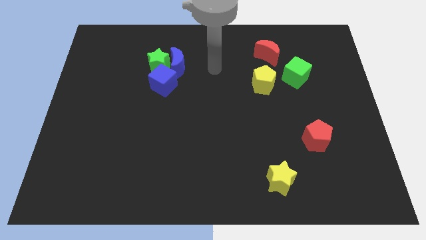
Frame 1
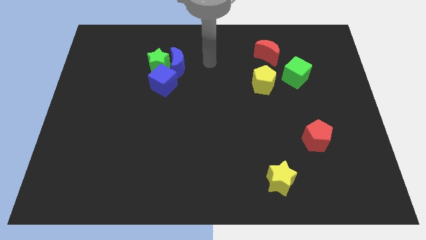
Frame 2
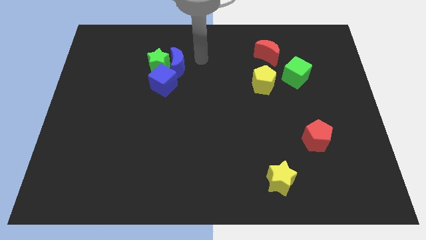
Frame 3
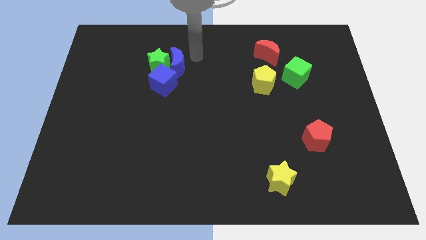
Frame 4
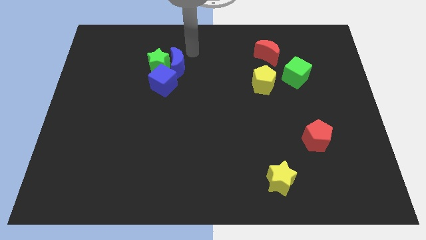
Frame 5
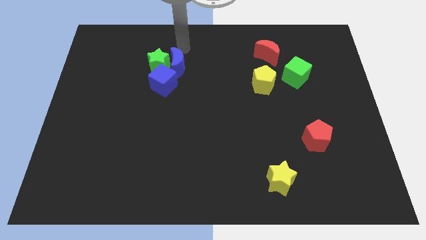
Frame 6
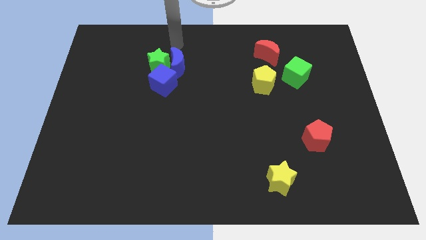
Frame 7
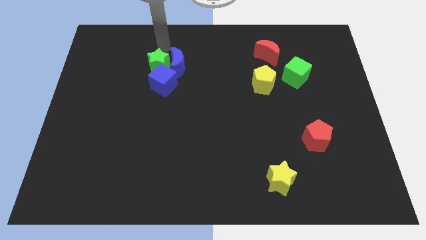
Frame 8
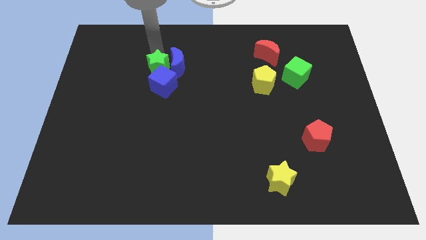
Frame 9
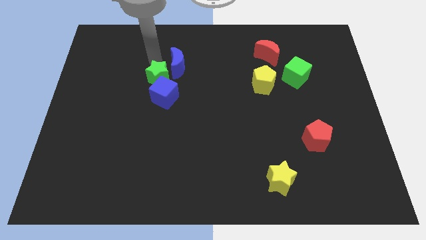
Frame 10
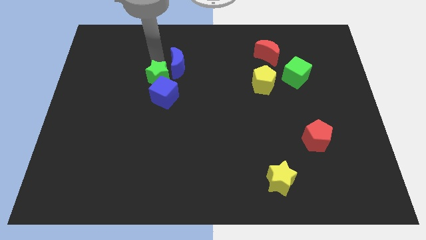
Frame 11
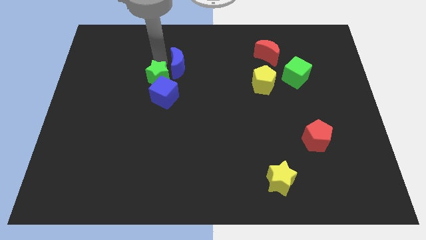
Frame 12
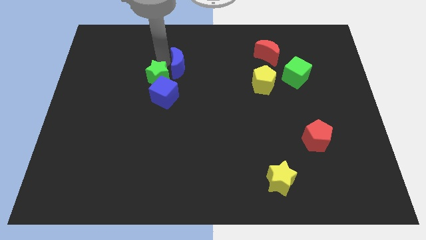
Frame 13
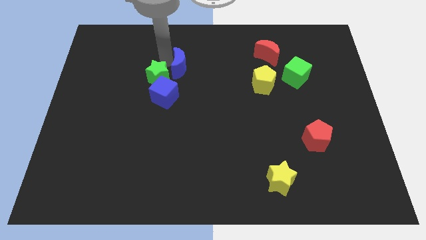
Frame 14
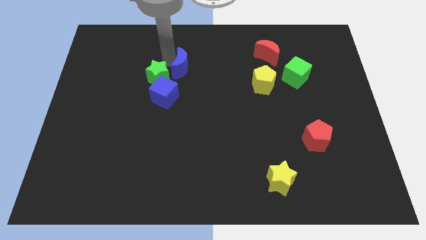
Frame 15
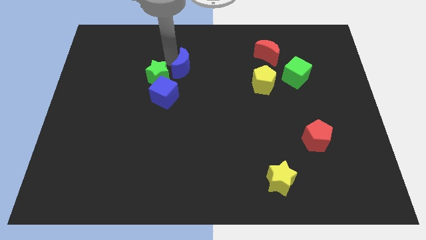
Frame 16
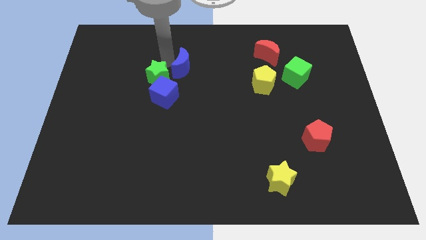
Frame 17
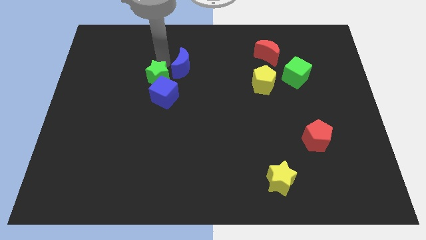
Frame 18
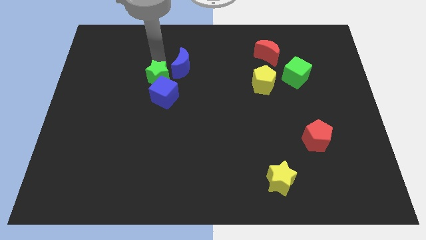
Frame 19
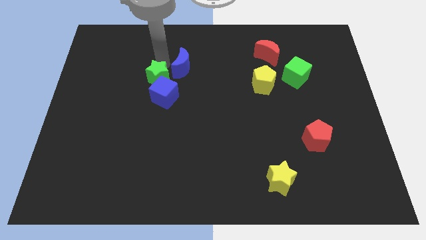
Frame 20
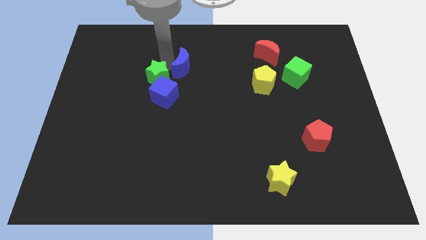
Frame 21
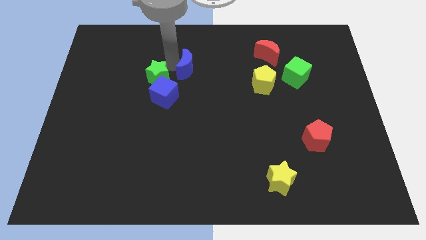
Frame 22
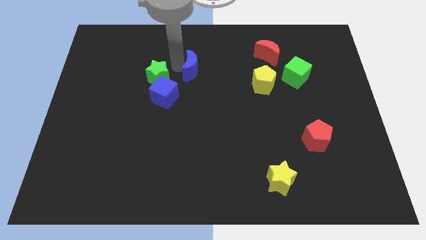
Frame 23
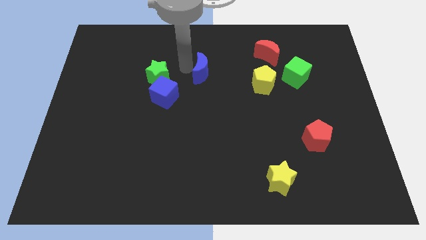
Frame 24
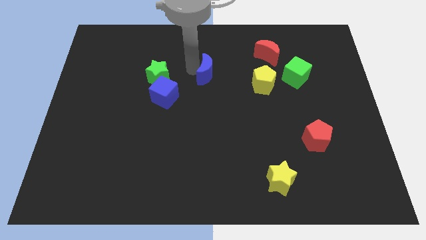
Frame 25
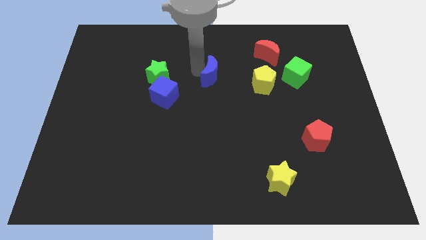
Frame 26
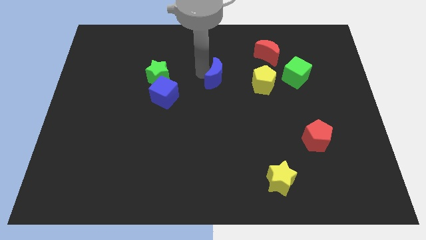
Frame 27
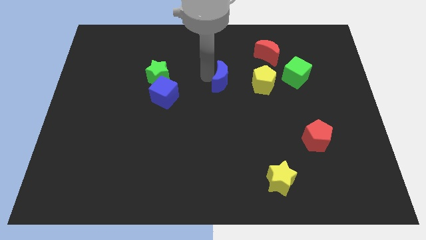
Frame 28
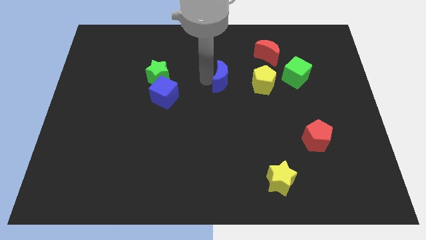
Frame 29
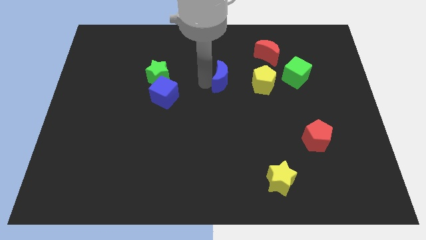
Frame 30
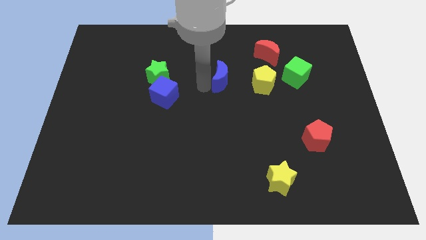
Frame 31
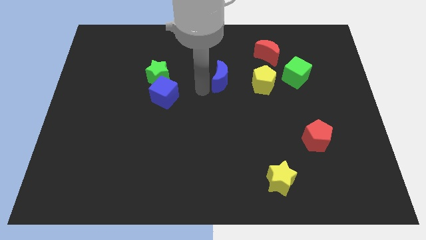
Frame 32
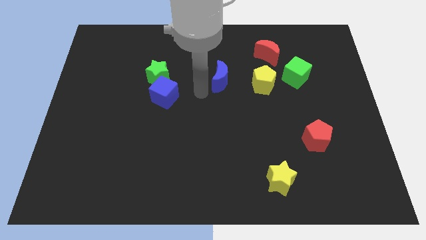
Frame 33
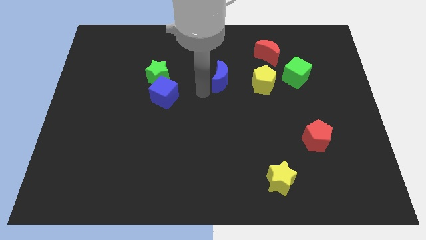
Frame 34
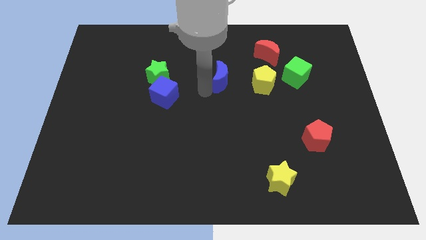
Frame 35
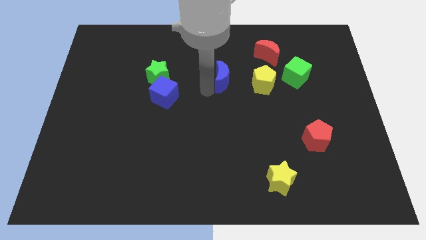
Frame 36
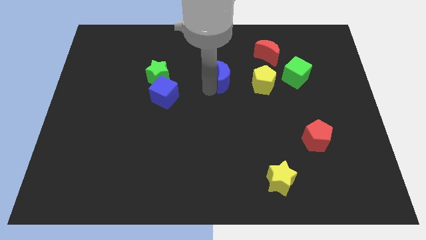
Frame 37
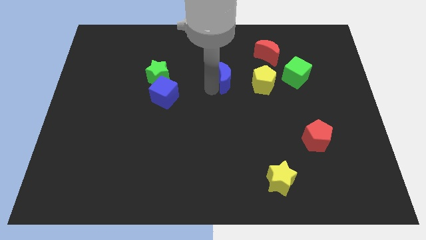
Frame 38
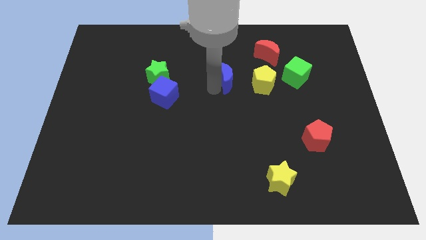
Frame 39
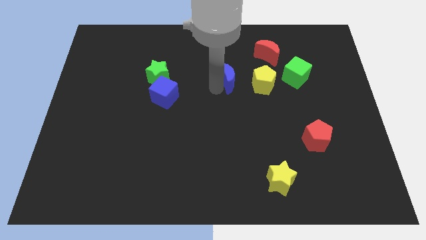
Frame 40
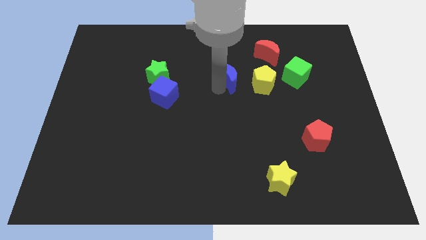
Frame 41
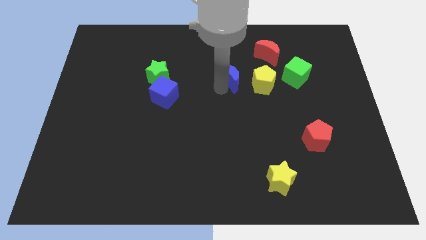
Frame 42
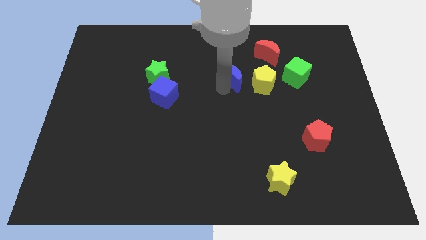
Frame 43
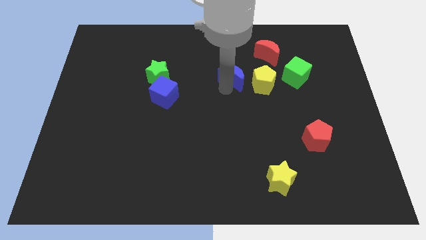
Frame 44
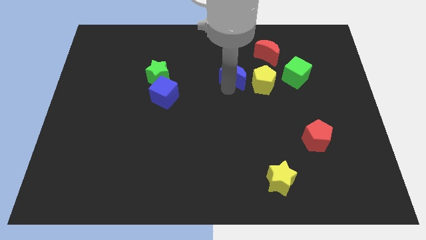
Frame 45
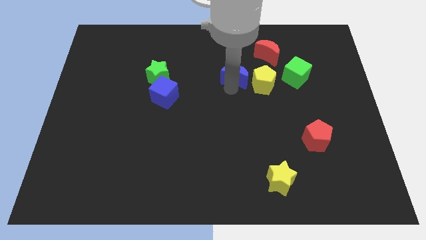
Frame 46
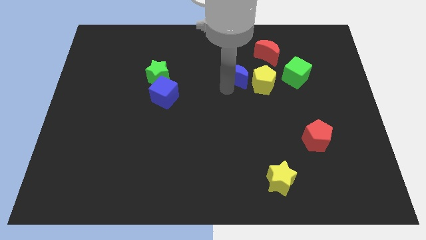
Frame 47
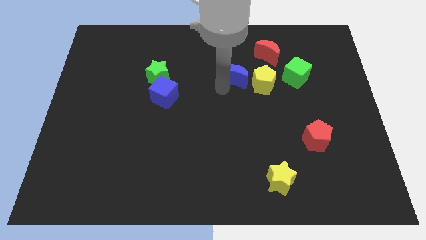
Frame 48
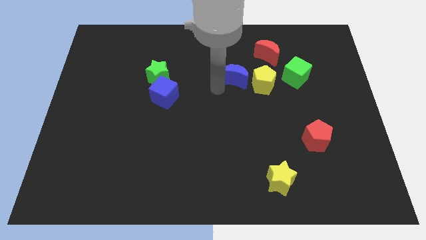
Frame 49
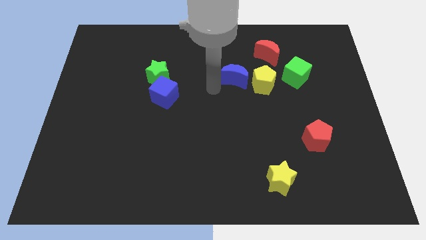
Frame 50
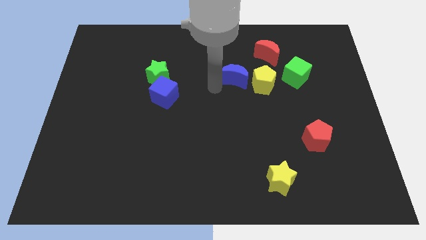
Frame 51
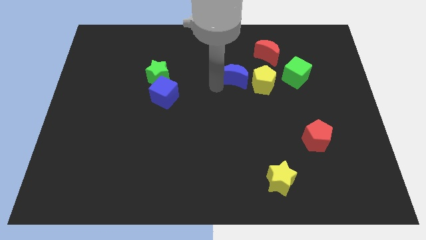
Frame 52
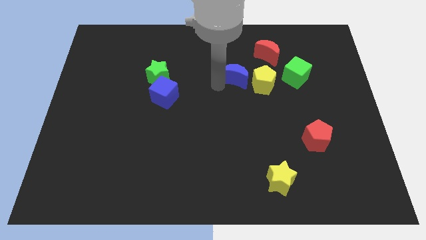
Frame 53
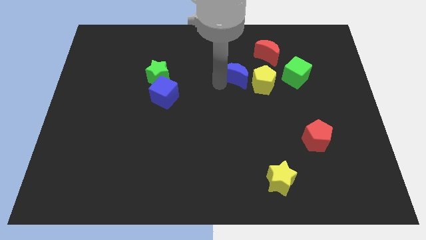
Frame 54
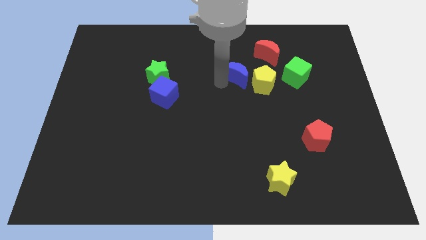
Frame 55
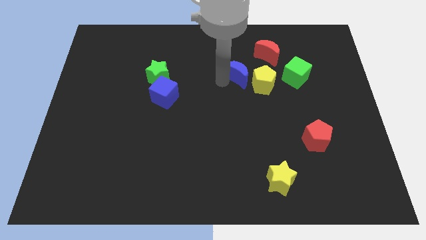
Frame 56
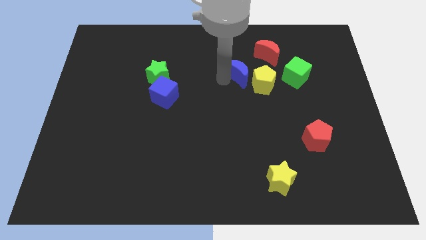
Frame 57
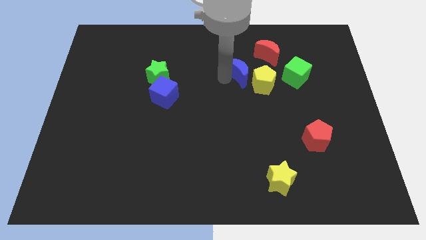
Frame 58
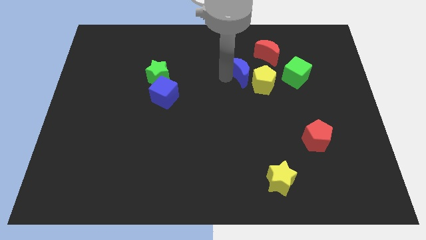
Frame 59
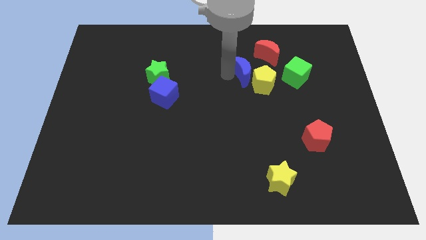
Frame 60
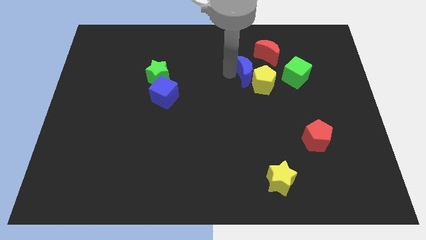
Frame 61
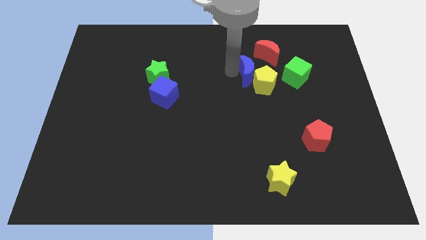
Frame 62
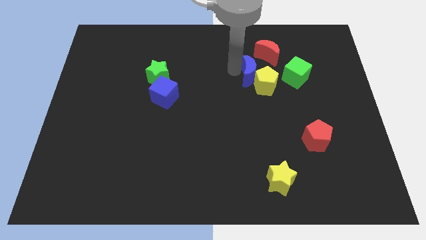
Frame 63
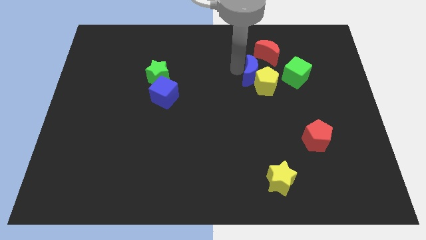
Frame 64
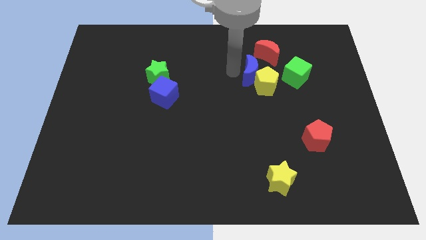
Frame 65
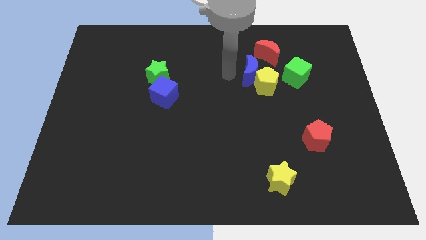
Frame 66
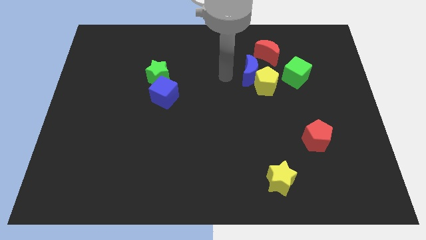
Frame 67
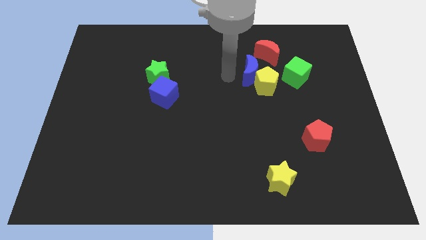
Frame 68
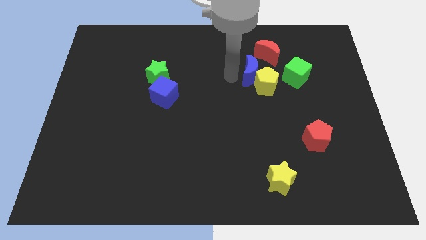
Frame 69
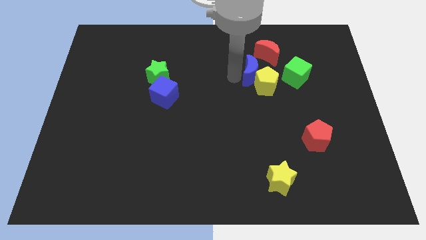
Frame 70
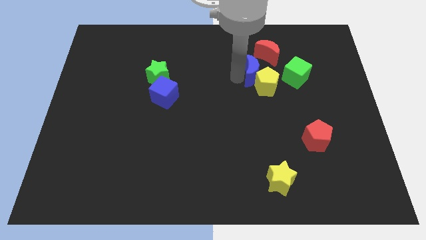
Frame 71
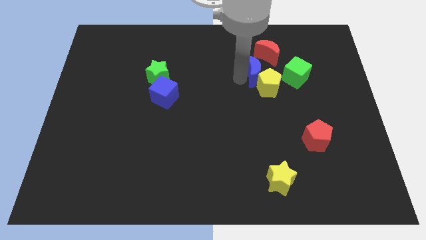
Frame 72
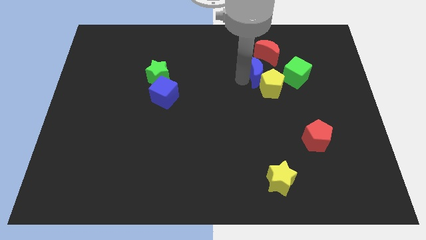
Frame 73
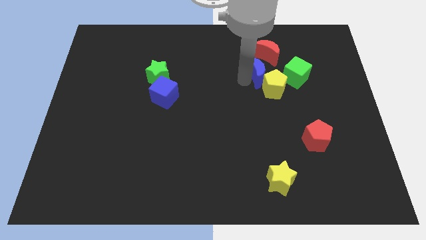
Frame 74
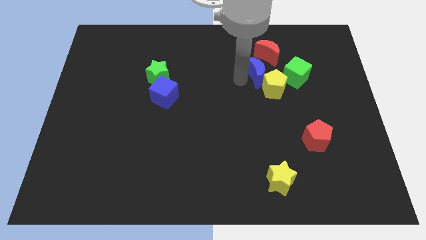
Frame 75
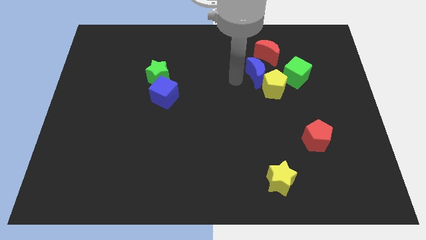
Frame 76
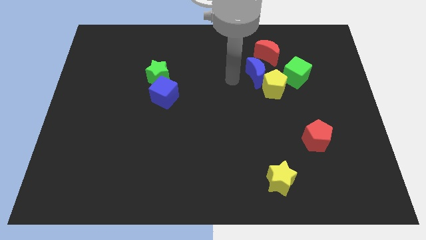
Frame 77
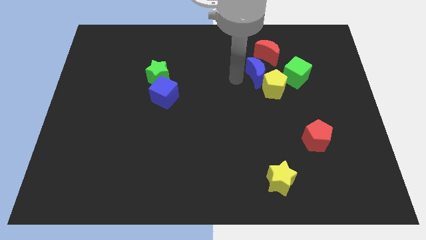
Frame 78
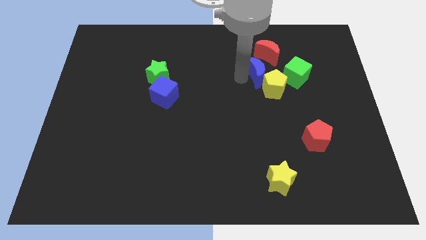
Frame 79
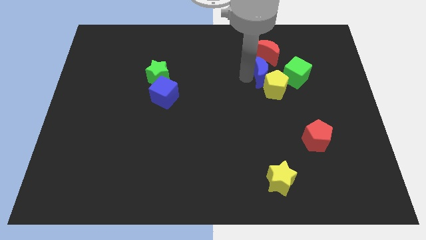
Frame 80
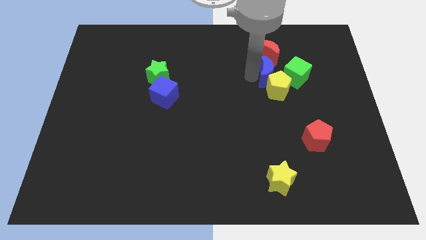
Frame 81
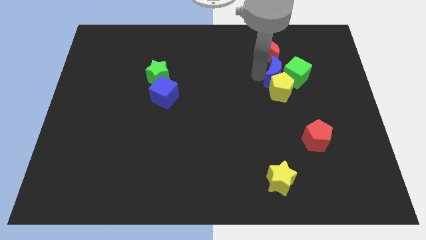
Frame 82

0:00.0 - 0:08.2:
slide the blue moon towards the green cube
